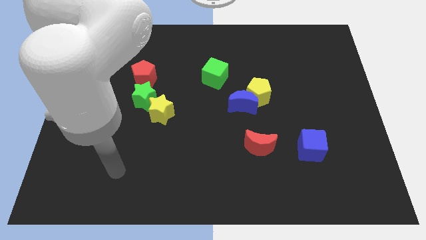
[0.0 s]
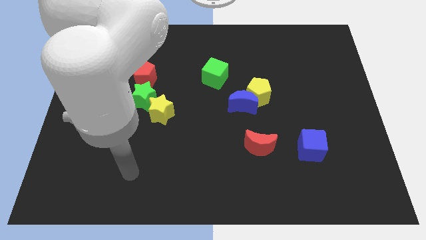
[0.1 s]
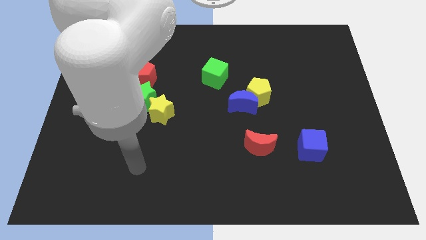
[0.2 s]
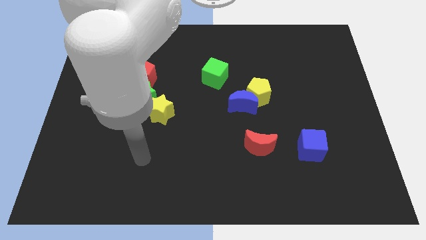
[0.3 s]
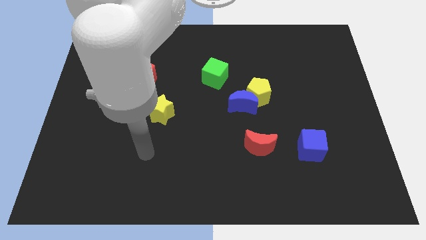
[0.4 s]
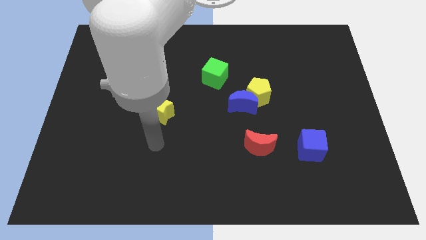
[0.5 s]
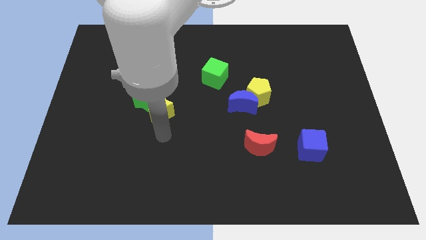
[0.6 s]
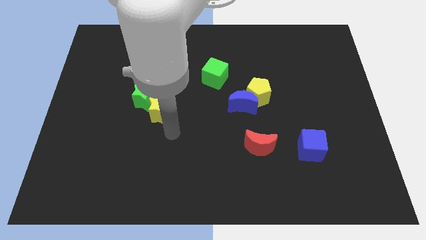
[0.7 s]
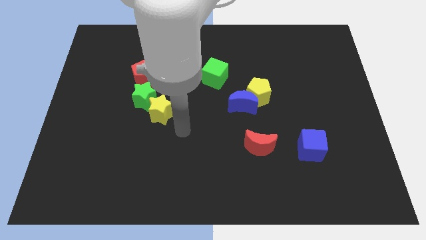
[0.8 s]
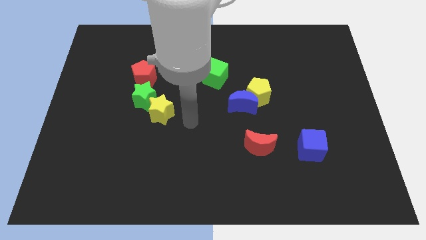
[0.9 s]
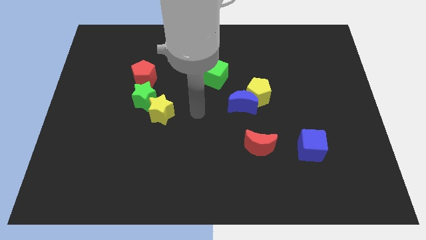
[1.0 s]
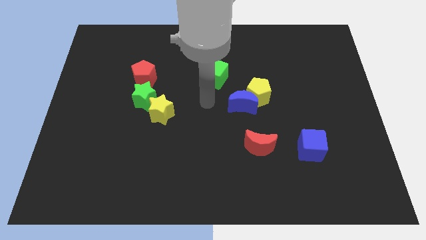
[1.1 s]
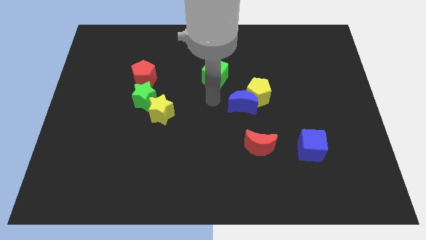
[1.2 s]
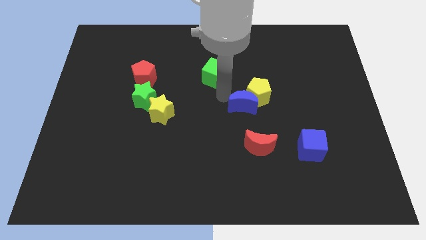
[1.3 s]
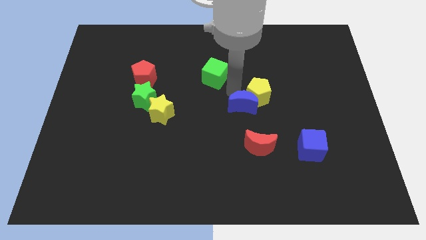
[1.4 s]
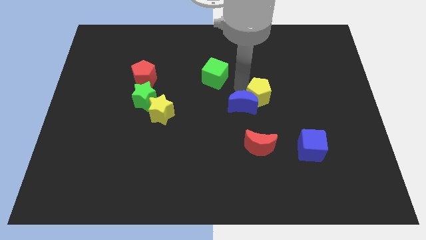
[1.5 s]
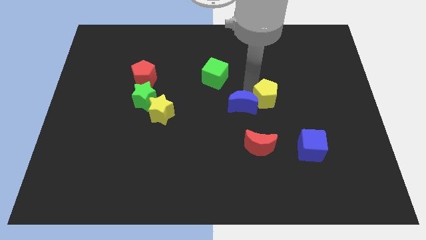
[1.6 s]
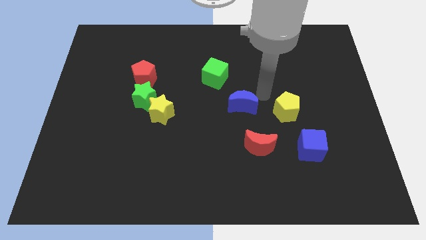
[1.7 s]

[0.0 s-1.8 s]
move the blue moon away from the yellow pentagon

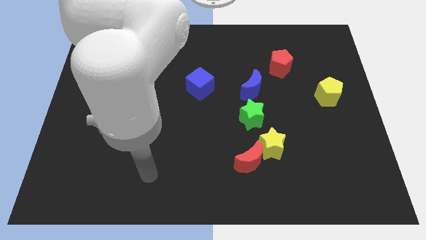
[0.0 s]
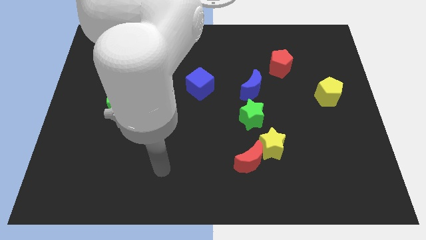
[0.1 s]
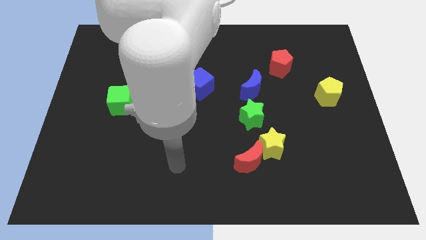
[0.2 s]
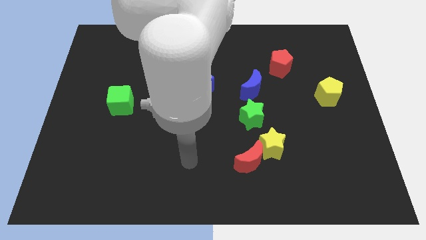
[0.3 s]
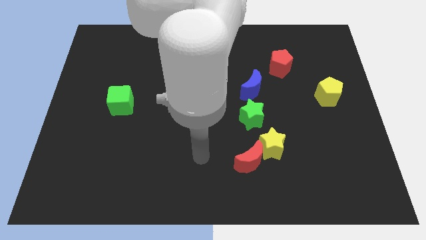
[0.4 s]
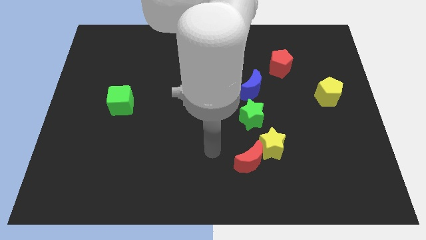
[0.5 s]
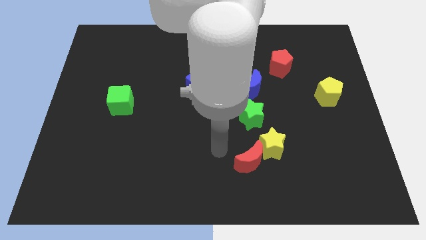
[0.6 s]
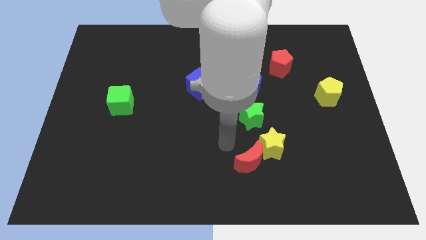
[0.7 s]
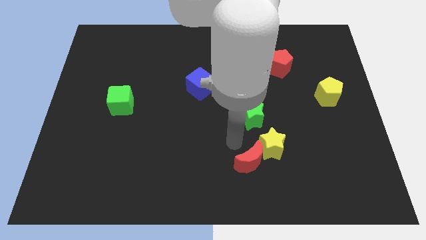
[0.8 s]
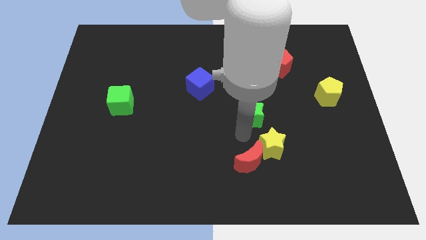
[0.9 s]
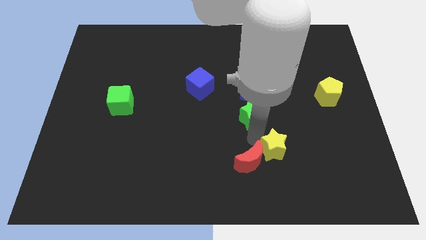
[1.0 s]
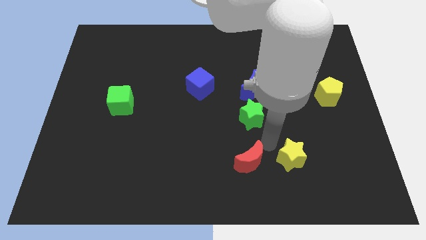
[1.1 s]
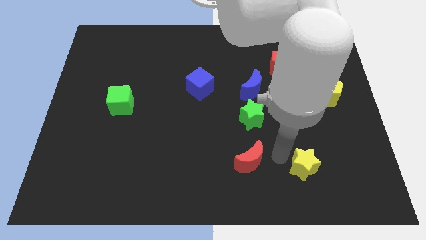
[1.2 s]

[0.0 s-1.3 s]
separate the red moon from the yellow star

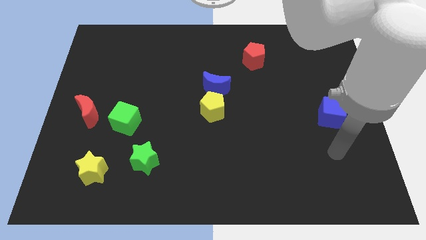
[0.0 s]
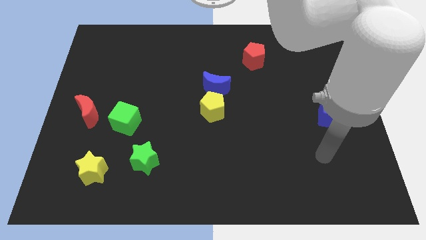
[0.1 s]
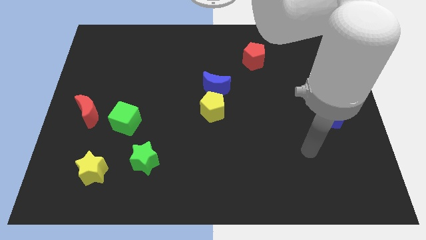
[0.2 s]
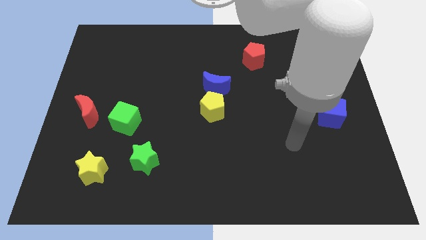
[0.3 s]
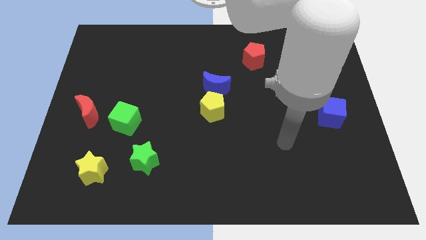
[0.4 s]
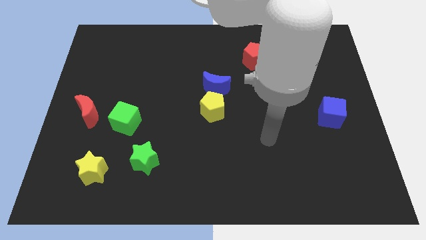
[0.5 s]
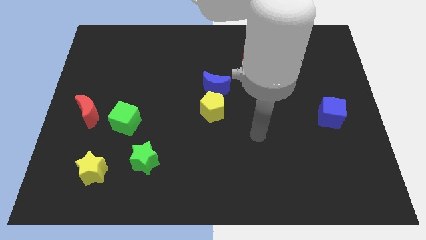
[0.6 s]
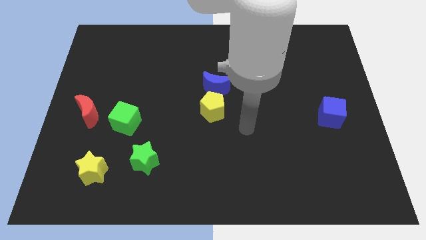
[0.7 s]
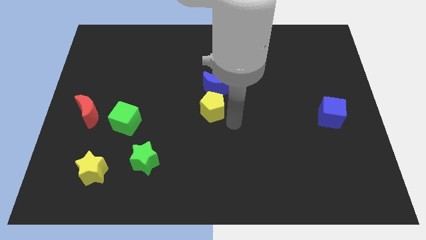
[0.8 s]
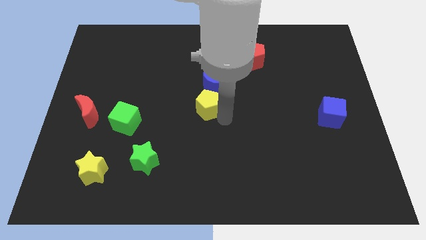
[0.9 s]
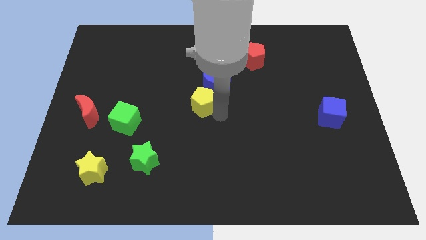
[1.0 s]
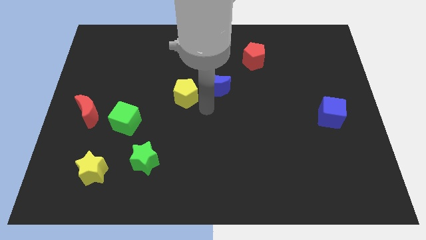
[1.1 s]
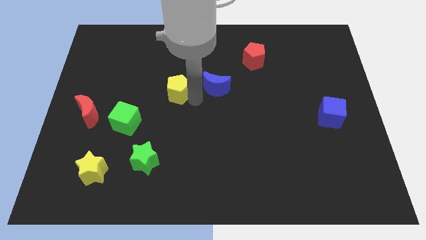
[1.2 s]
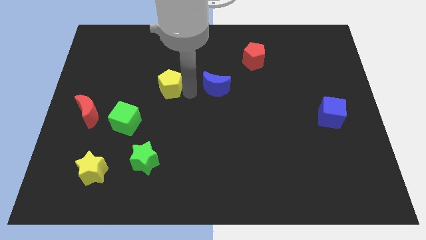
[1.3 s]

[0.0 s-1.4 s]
separate the blue moon from the yellow pentagon

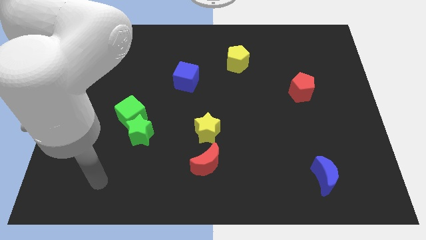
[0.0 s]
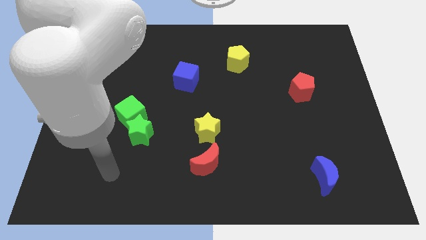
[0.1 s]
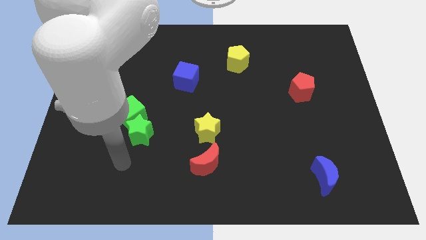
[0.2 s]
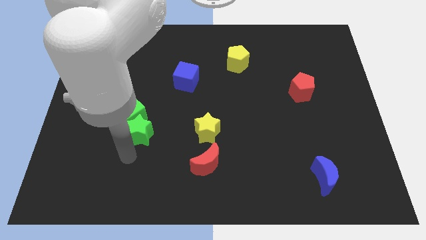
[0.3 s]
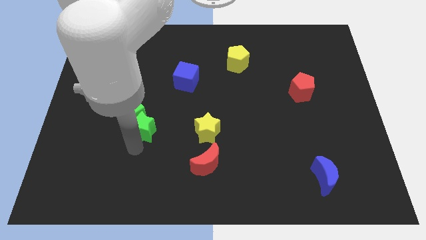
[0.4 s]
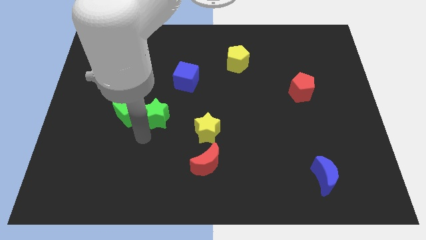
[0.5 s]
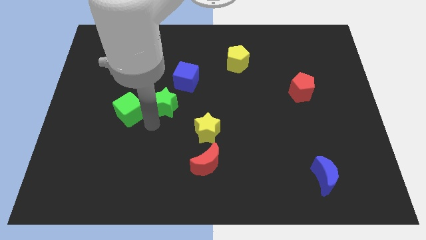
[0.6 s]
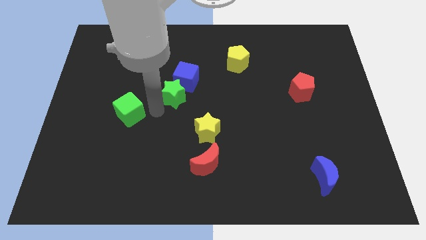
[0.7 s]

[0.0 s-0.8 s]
pull the green cube apart from the green star

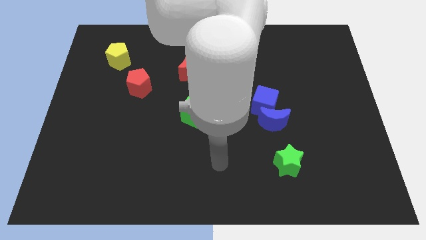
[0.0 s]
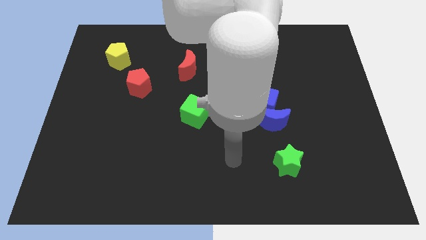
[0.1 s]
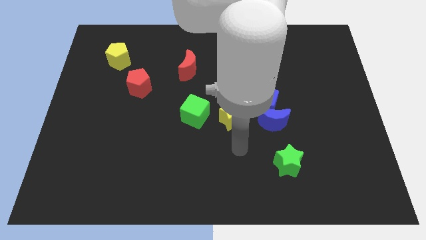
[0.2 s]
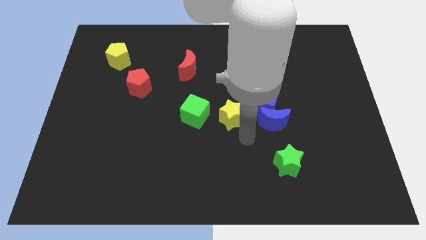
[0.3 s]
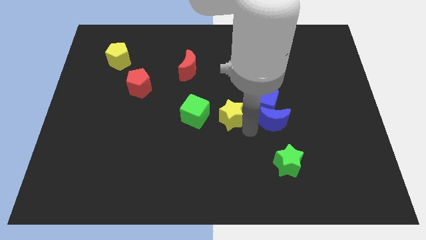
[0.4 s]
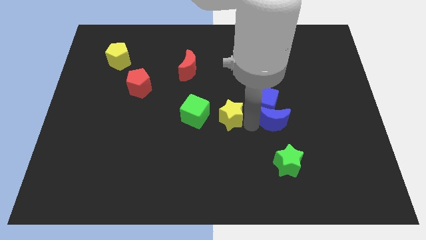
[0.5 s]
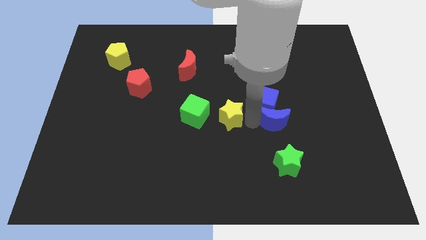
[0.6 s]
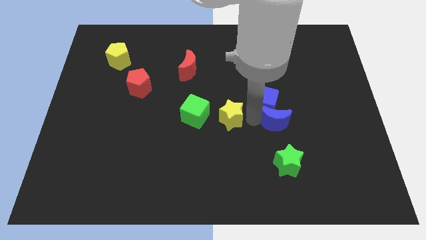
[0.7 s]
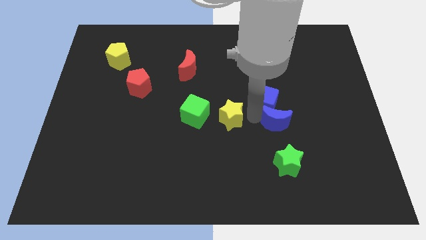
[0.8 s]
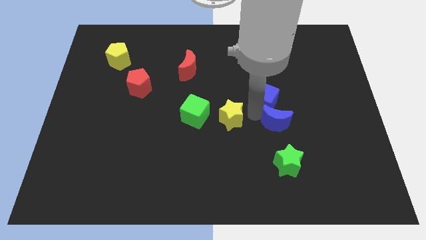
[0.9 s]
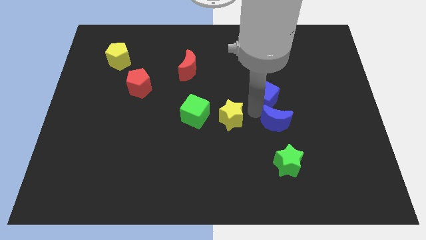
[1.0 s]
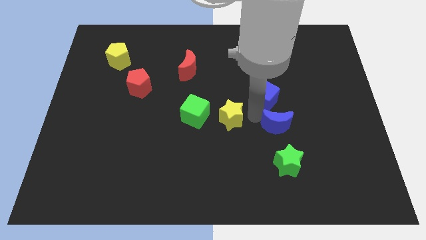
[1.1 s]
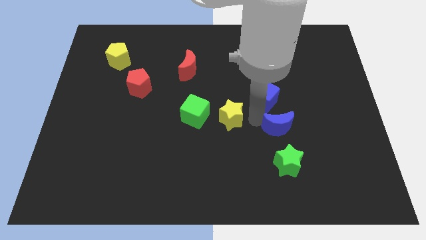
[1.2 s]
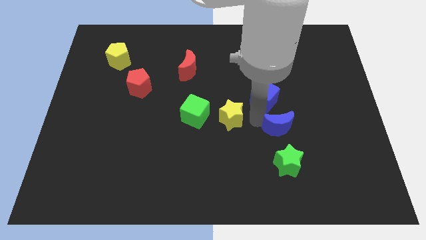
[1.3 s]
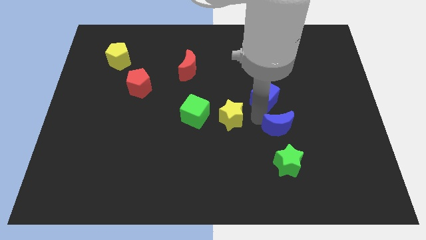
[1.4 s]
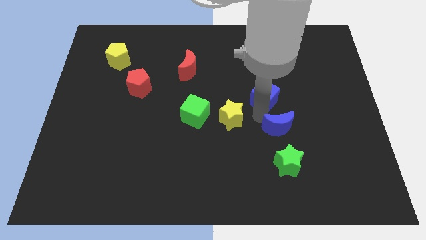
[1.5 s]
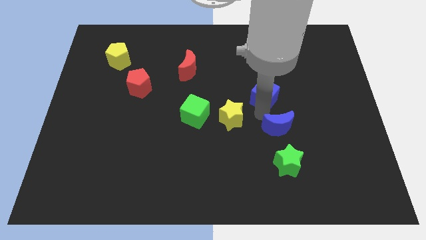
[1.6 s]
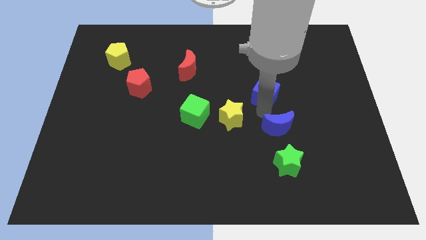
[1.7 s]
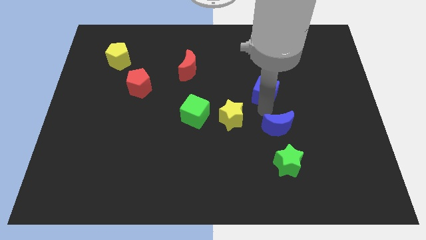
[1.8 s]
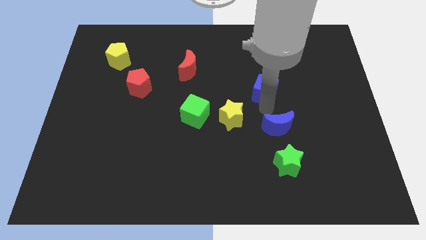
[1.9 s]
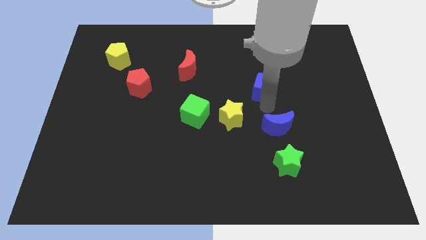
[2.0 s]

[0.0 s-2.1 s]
pull the blue cube apart from the blue moon and yellow star

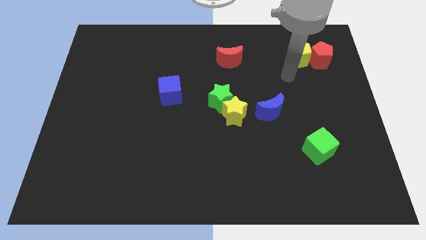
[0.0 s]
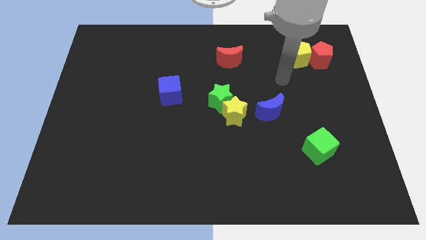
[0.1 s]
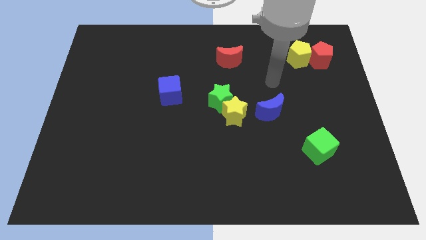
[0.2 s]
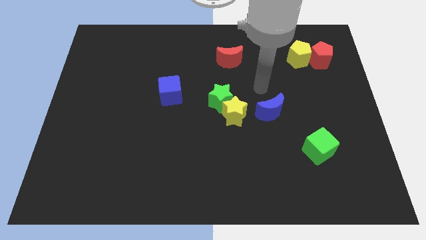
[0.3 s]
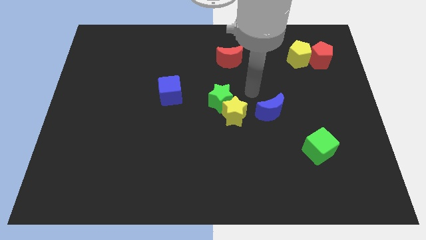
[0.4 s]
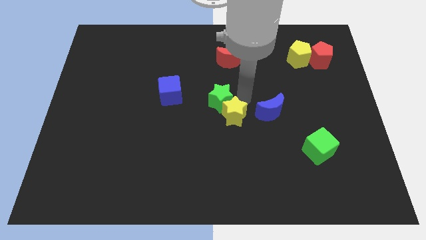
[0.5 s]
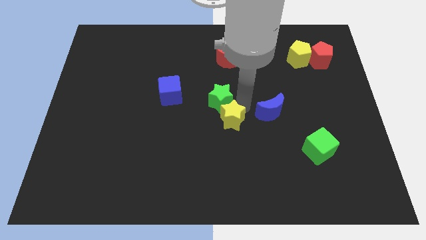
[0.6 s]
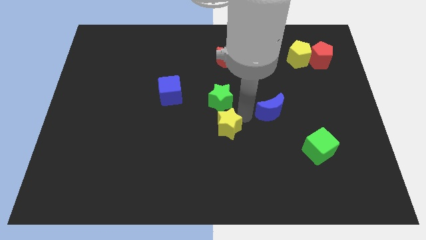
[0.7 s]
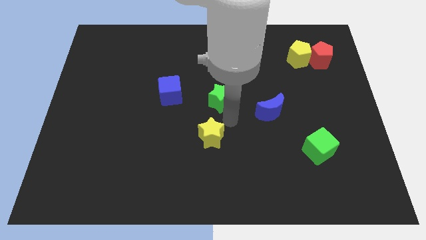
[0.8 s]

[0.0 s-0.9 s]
pull the green star apart from the yellow star

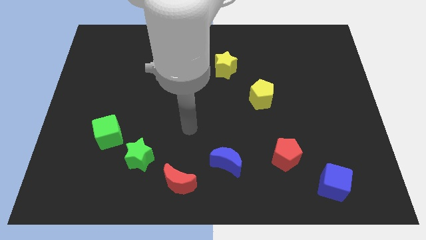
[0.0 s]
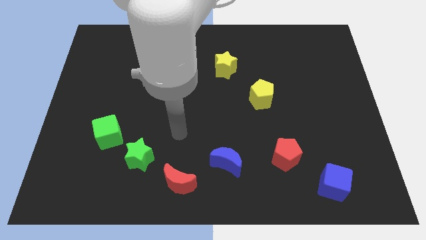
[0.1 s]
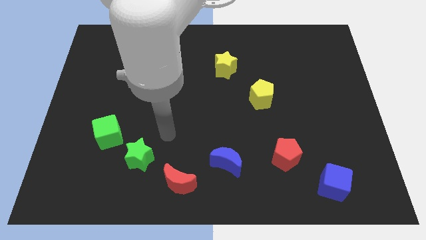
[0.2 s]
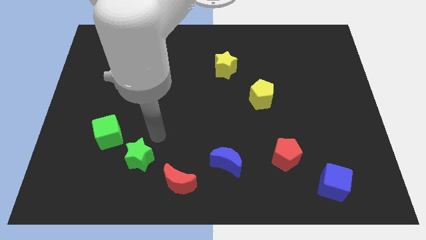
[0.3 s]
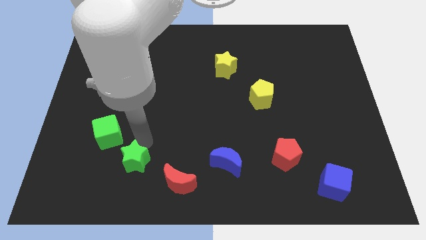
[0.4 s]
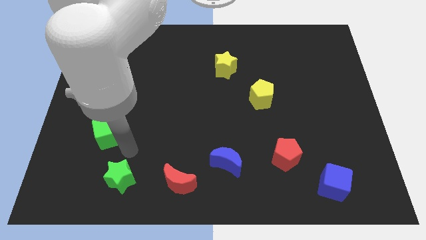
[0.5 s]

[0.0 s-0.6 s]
move the green cube away from the green star

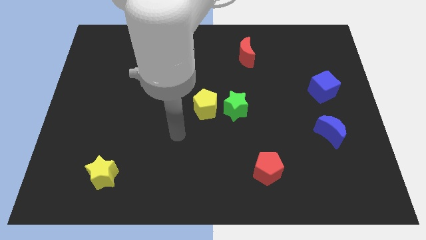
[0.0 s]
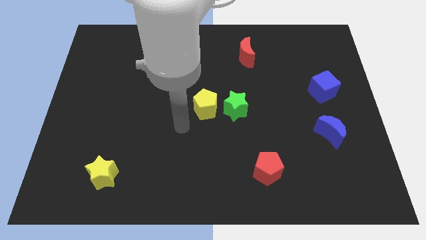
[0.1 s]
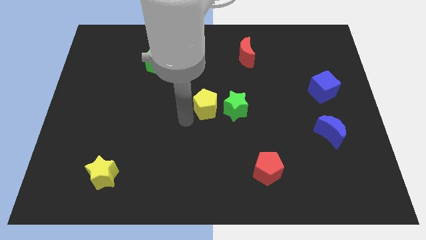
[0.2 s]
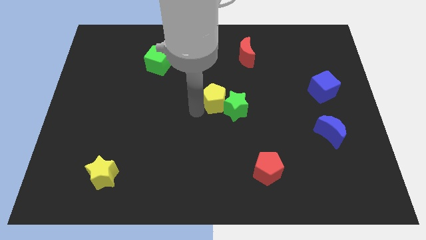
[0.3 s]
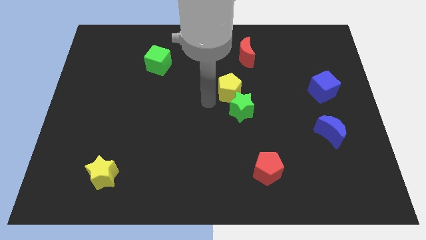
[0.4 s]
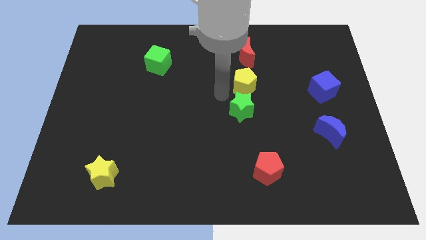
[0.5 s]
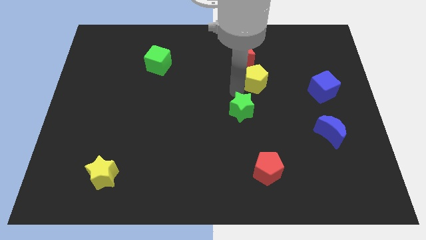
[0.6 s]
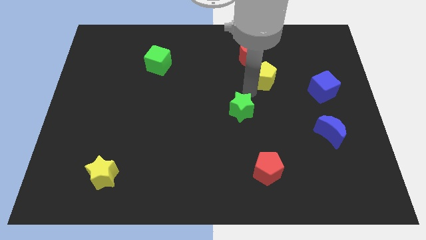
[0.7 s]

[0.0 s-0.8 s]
move the green star away from the yellow pentagon
